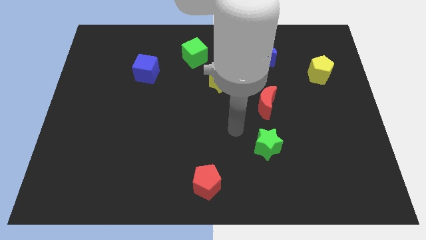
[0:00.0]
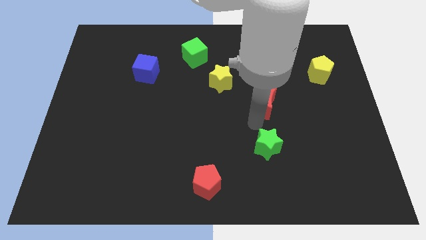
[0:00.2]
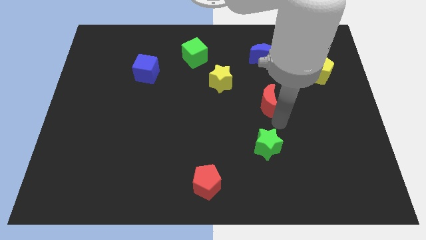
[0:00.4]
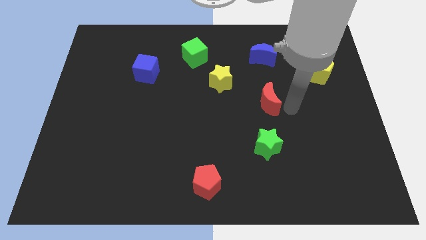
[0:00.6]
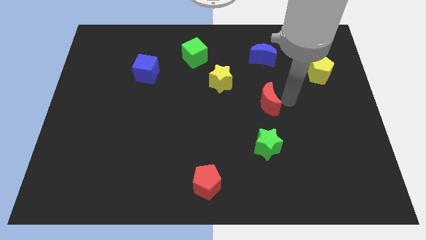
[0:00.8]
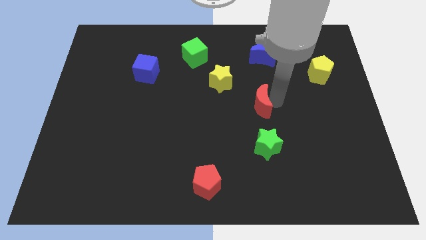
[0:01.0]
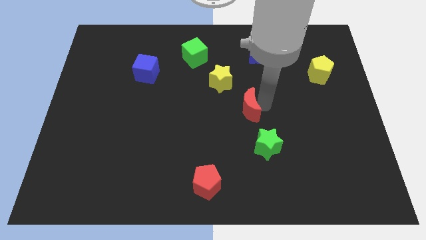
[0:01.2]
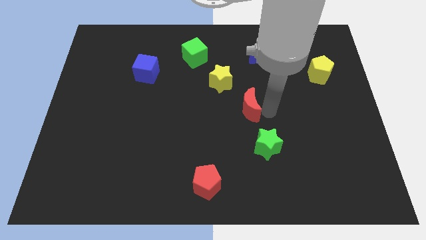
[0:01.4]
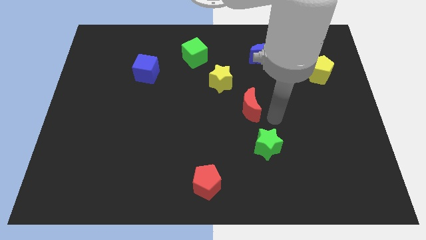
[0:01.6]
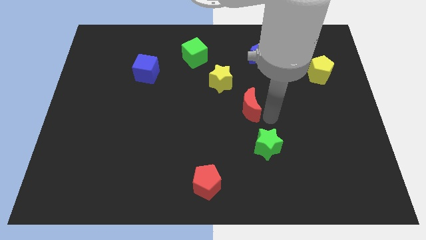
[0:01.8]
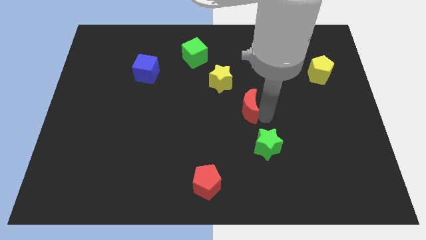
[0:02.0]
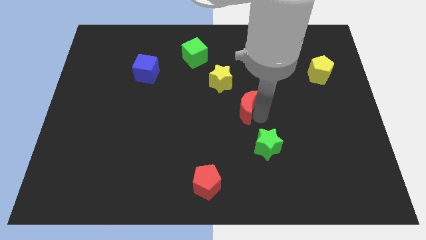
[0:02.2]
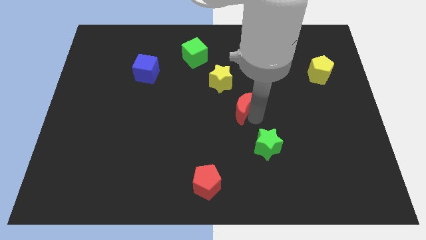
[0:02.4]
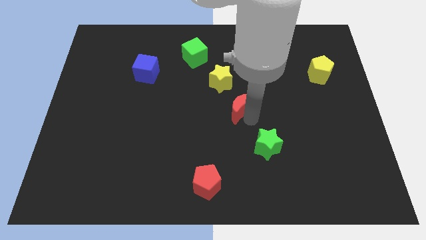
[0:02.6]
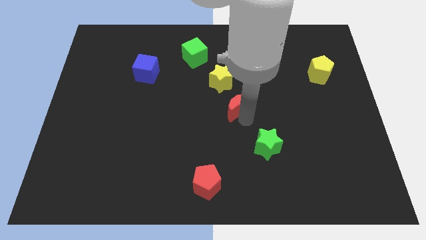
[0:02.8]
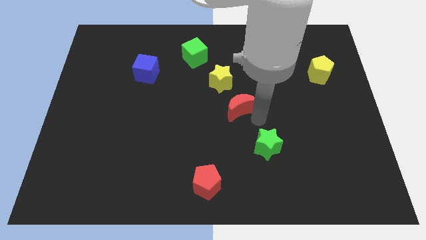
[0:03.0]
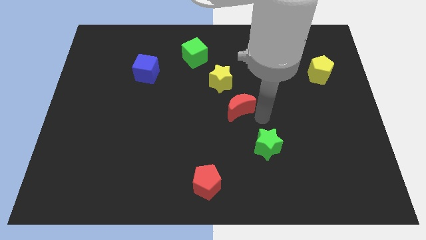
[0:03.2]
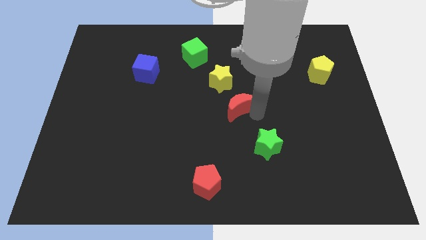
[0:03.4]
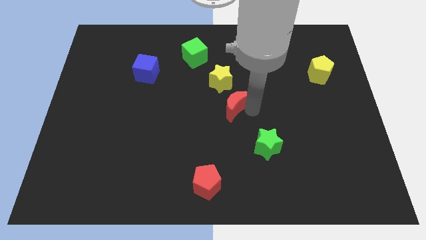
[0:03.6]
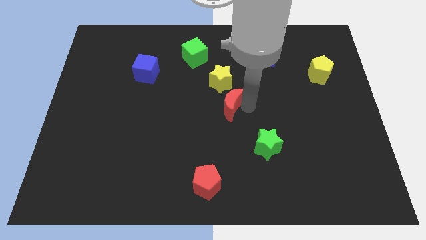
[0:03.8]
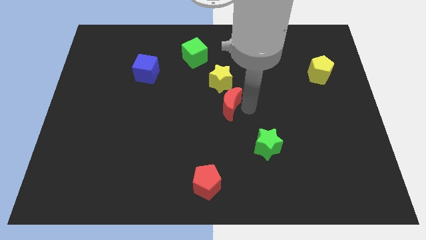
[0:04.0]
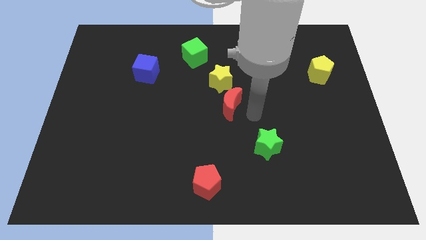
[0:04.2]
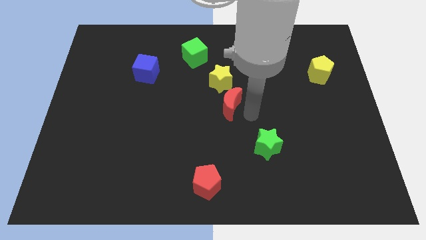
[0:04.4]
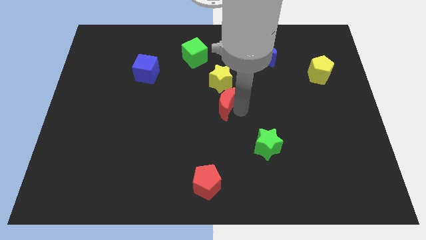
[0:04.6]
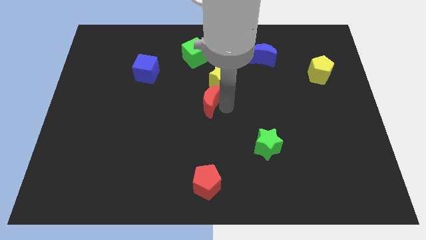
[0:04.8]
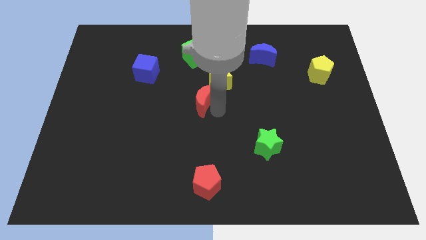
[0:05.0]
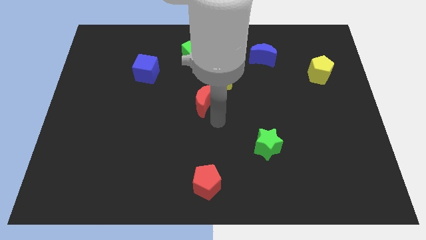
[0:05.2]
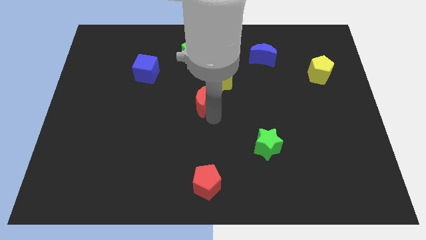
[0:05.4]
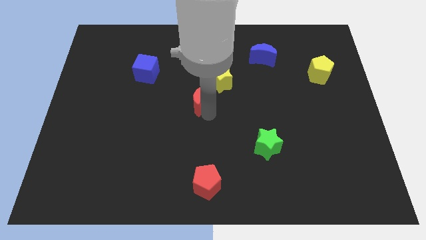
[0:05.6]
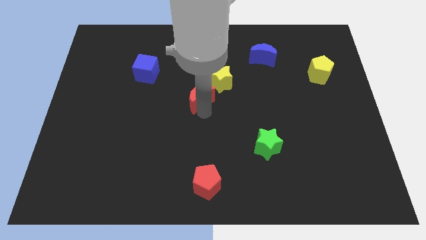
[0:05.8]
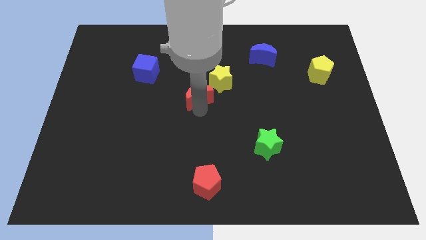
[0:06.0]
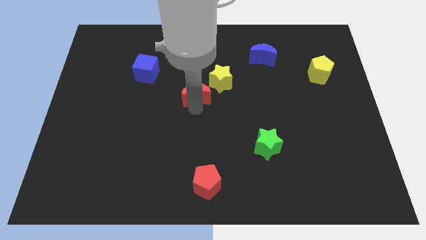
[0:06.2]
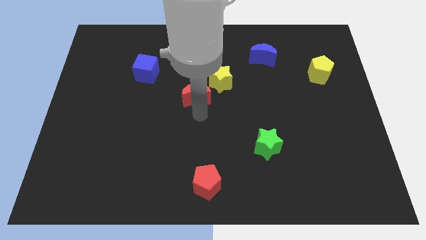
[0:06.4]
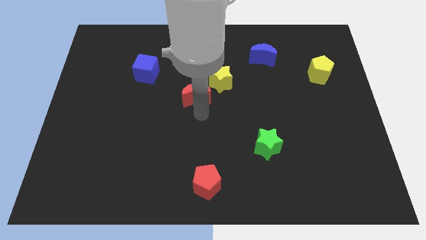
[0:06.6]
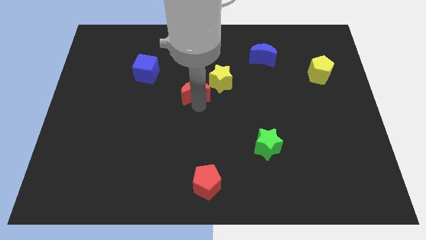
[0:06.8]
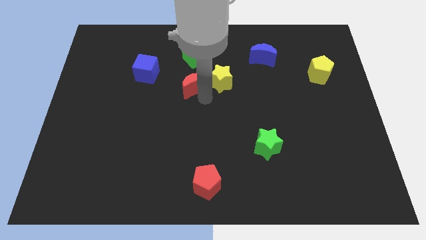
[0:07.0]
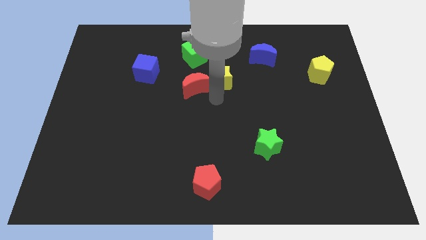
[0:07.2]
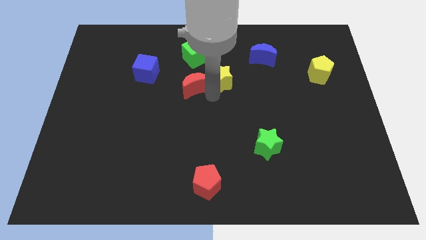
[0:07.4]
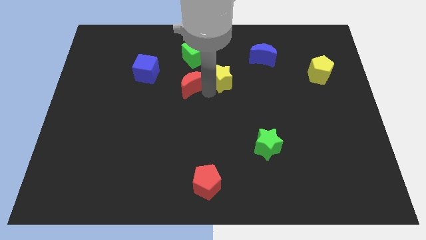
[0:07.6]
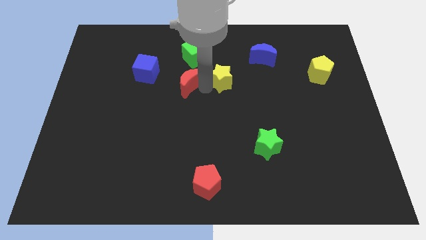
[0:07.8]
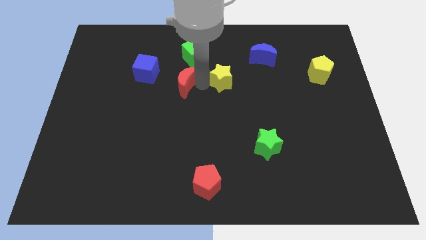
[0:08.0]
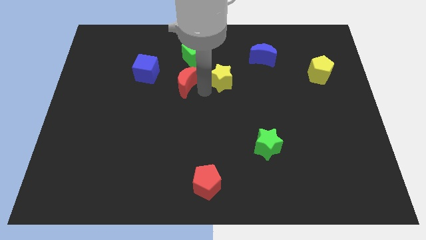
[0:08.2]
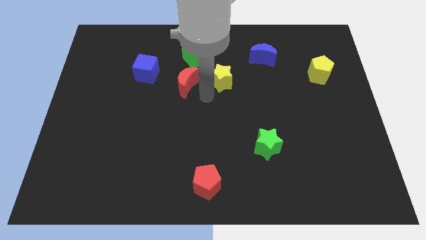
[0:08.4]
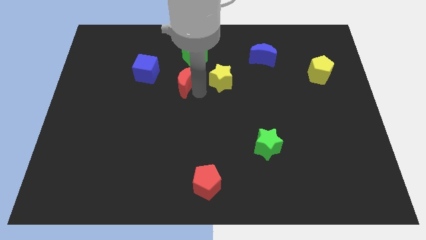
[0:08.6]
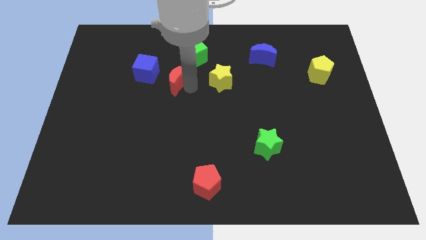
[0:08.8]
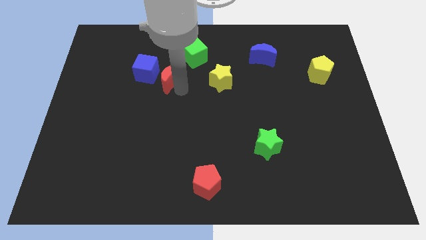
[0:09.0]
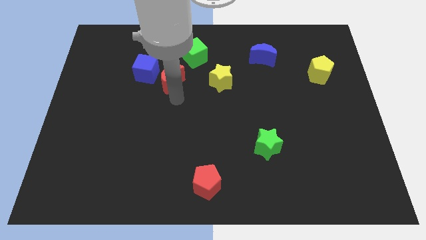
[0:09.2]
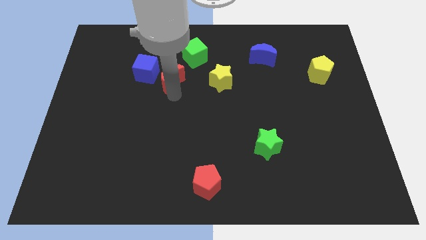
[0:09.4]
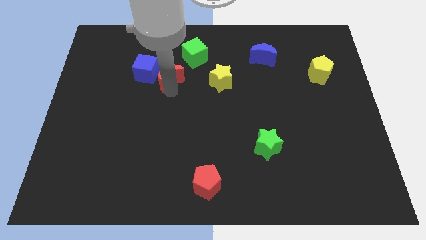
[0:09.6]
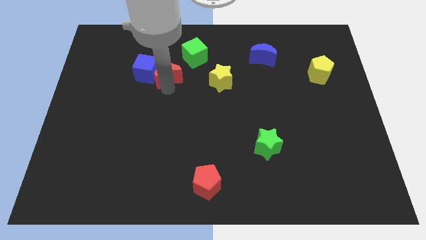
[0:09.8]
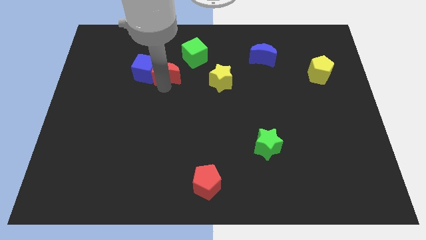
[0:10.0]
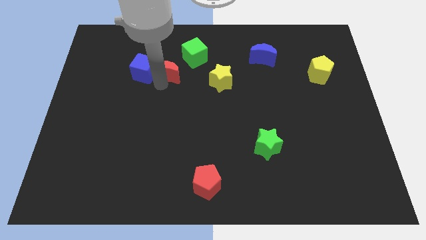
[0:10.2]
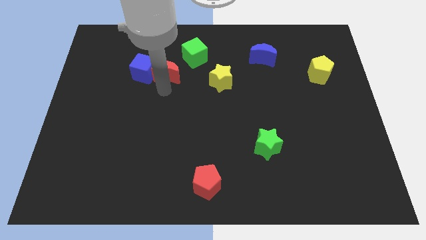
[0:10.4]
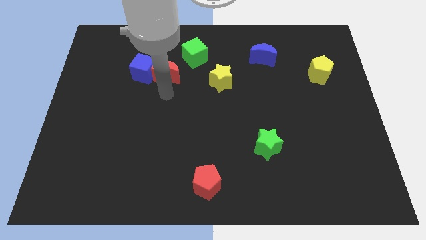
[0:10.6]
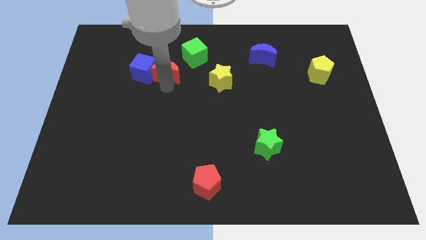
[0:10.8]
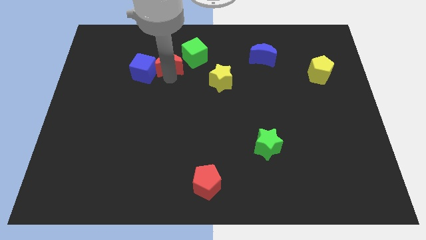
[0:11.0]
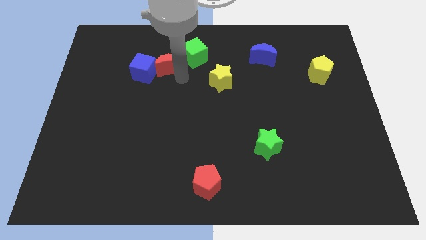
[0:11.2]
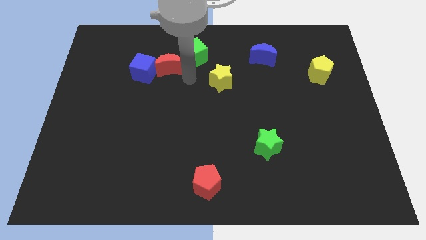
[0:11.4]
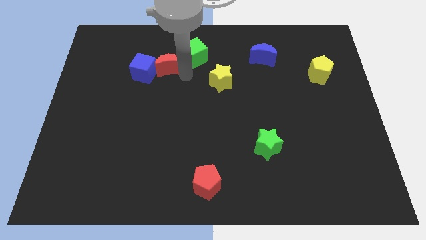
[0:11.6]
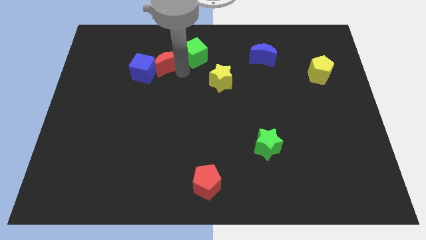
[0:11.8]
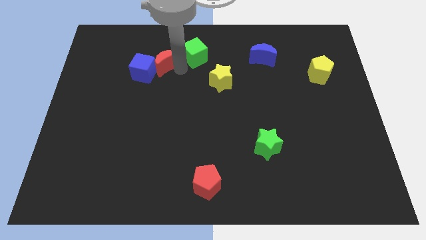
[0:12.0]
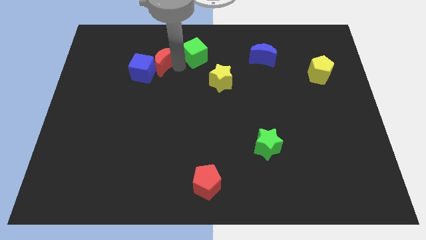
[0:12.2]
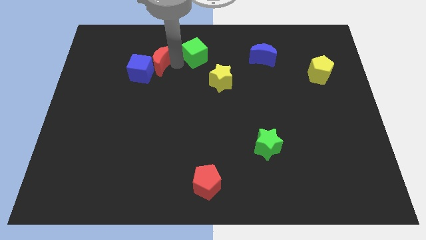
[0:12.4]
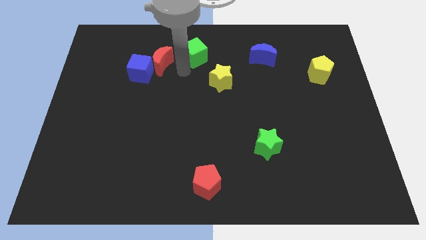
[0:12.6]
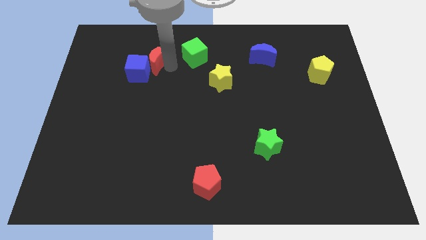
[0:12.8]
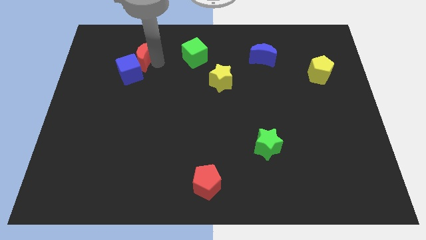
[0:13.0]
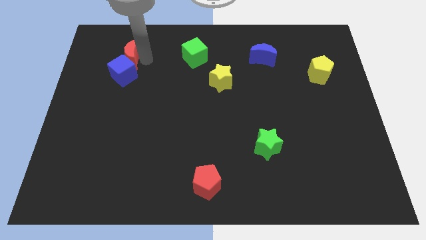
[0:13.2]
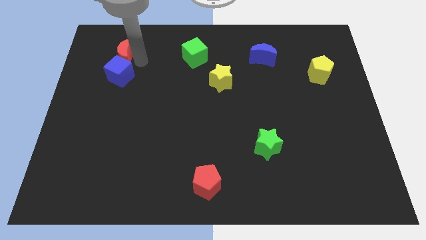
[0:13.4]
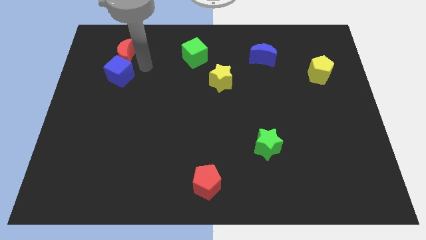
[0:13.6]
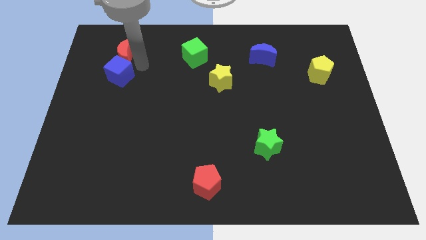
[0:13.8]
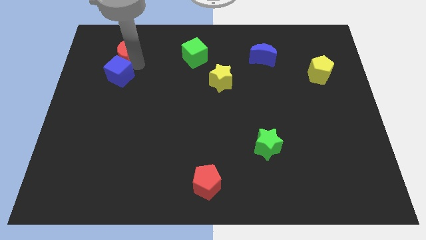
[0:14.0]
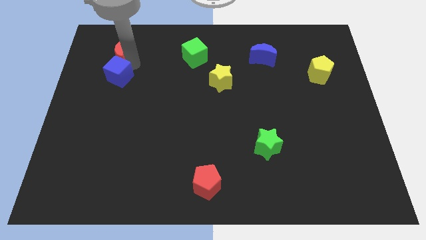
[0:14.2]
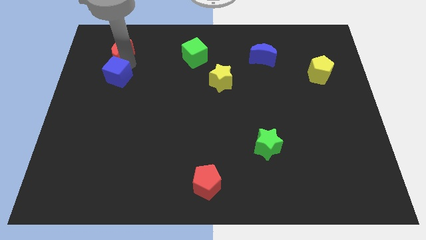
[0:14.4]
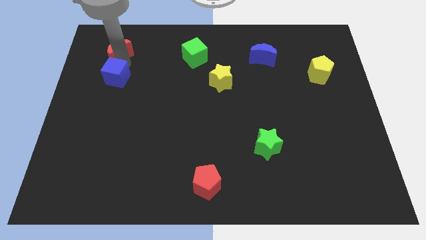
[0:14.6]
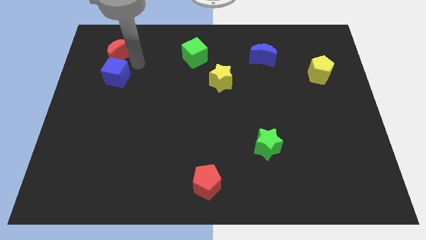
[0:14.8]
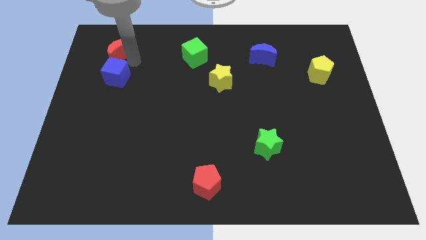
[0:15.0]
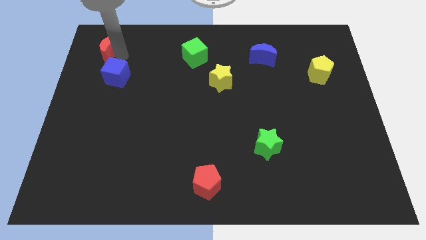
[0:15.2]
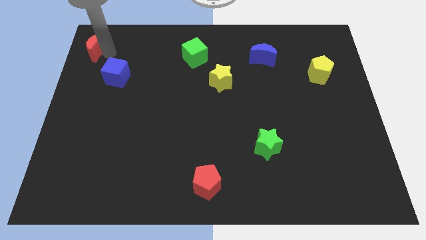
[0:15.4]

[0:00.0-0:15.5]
slide the red moon to the upper left corner
